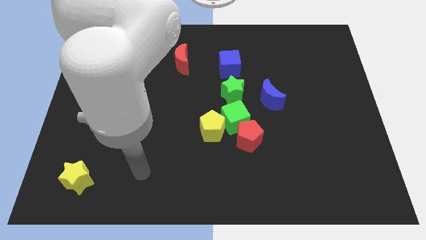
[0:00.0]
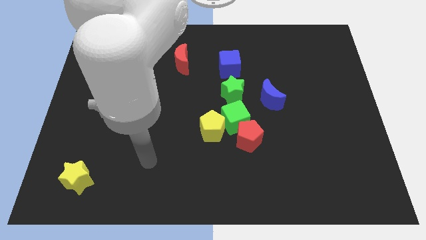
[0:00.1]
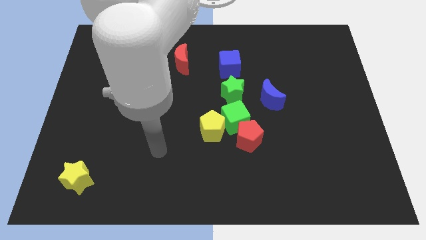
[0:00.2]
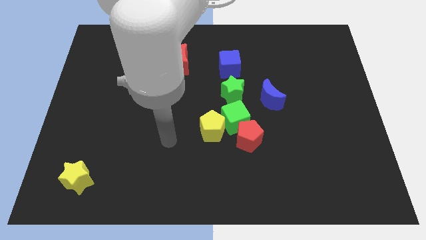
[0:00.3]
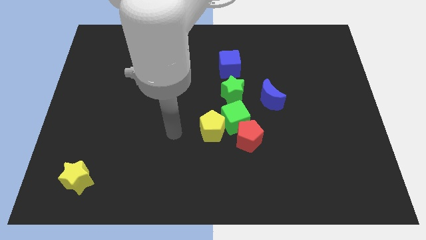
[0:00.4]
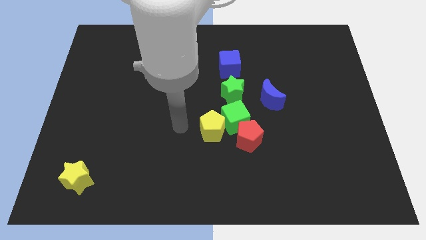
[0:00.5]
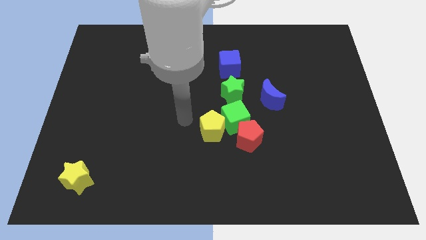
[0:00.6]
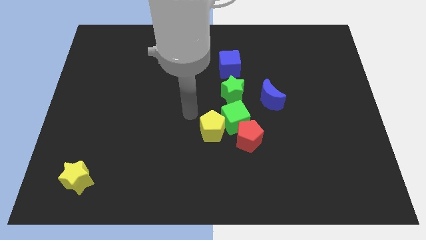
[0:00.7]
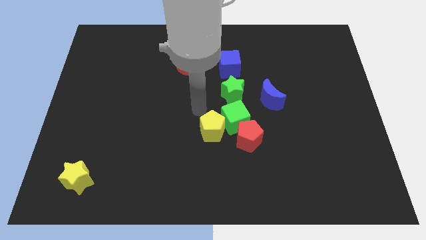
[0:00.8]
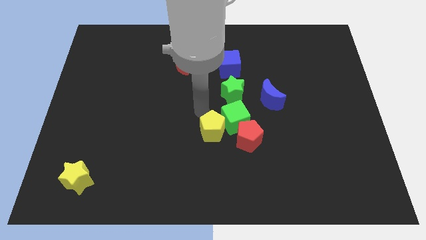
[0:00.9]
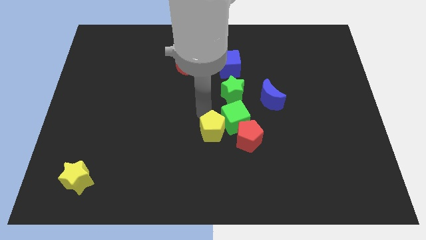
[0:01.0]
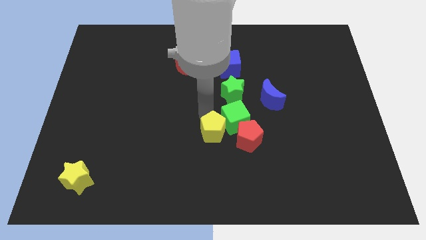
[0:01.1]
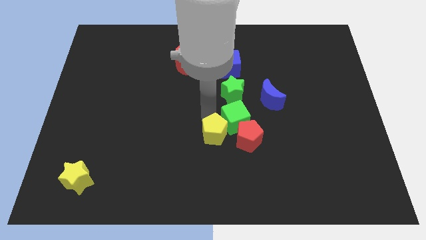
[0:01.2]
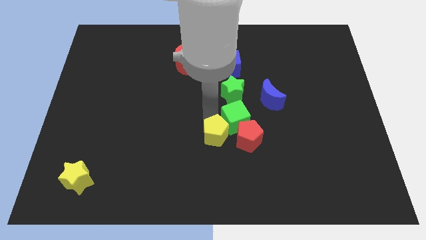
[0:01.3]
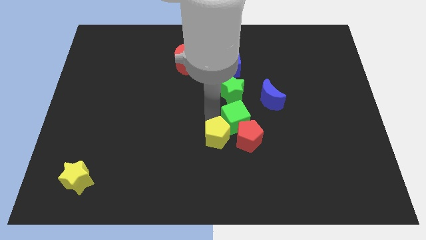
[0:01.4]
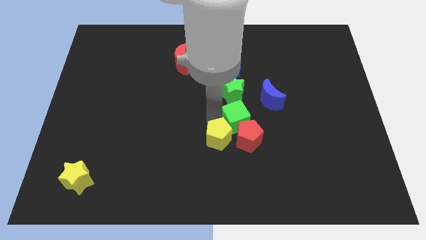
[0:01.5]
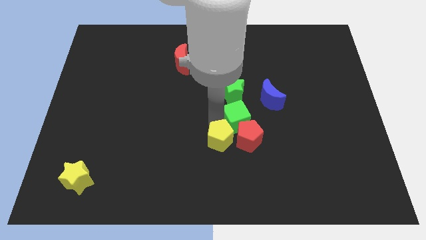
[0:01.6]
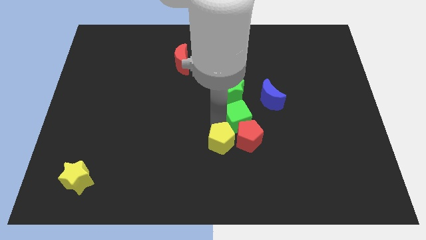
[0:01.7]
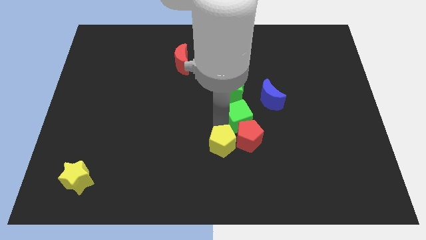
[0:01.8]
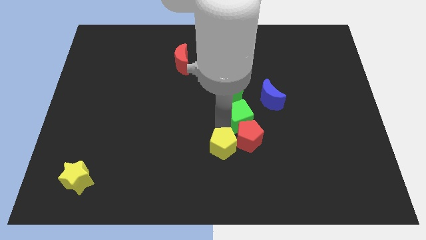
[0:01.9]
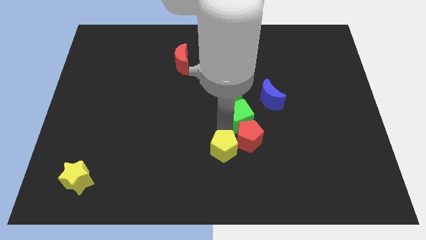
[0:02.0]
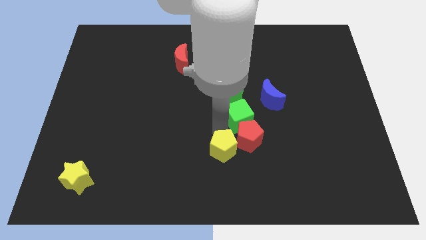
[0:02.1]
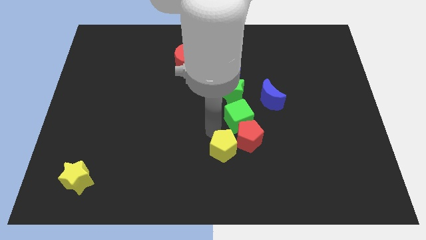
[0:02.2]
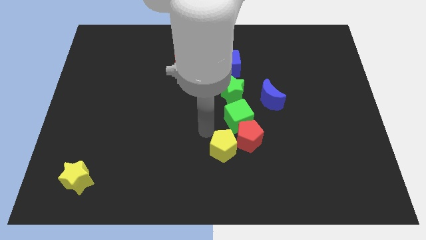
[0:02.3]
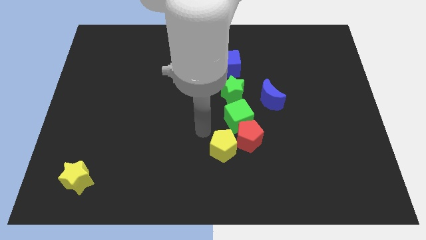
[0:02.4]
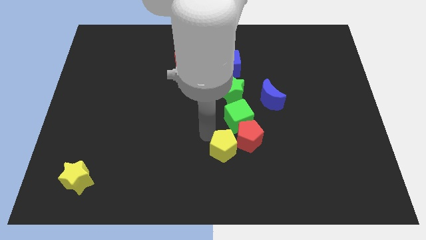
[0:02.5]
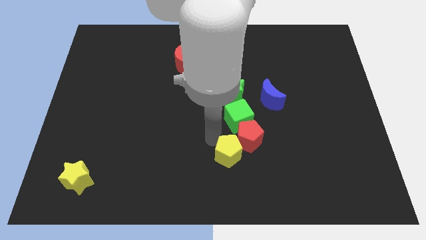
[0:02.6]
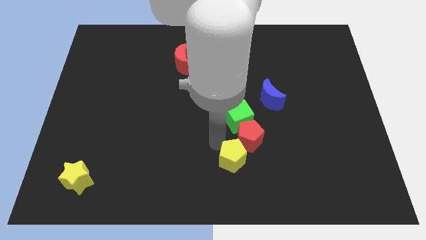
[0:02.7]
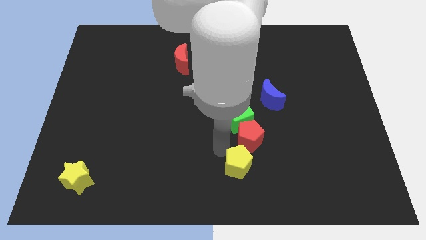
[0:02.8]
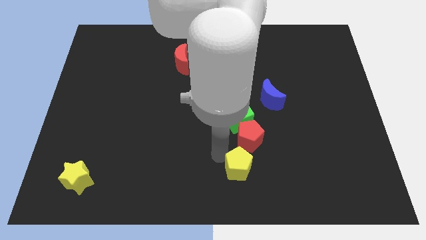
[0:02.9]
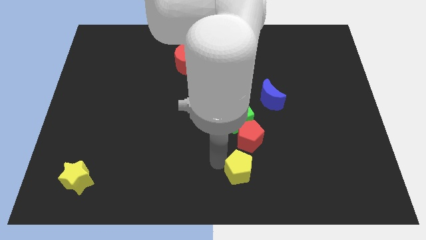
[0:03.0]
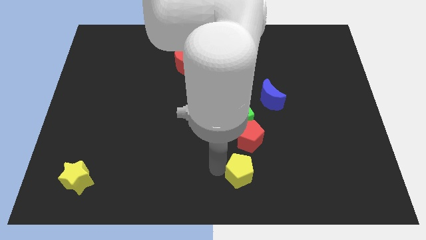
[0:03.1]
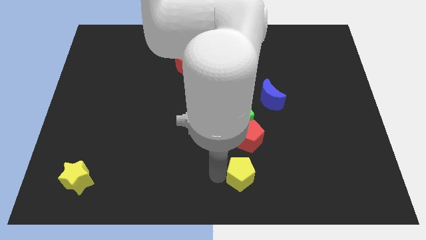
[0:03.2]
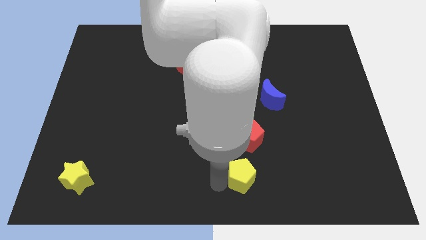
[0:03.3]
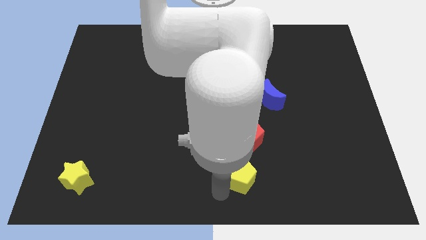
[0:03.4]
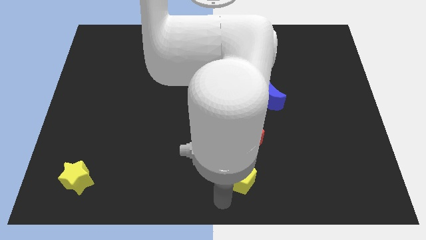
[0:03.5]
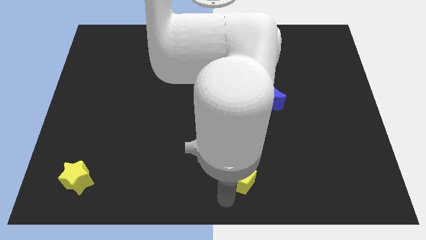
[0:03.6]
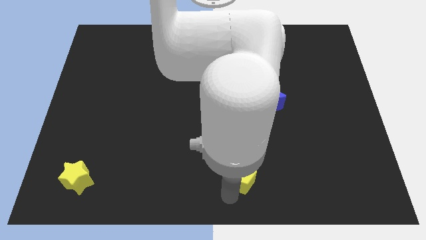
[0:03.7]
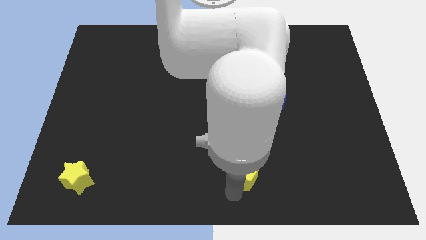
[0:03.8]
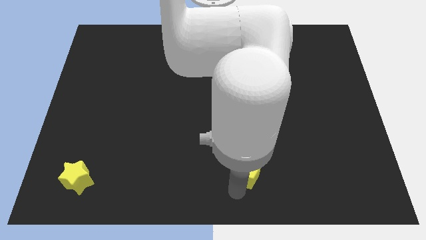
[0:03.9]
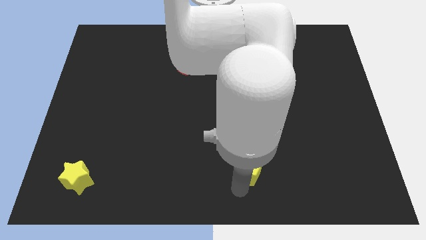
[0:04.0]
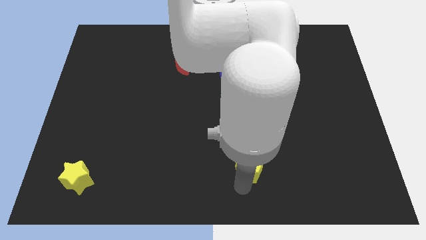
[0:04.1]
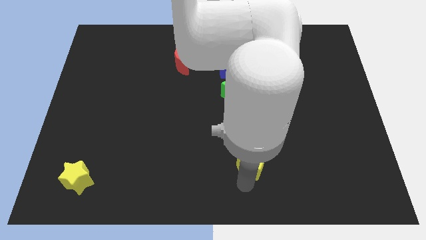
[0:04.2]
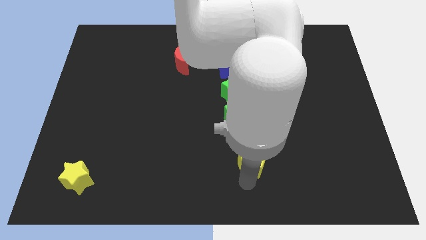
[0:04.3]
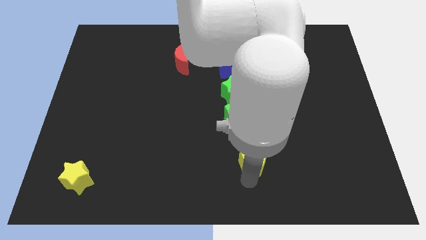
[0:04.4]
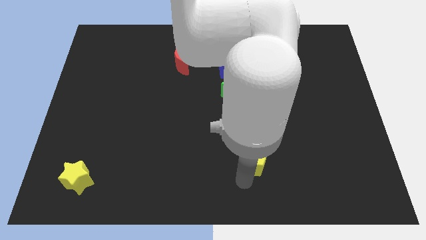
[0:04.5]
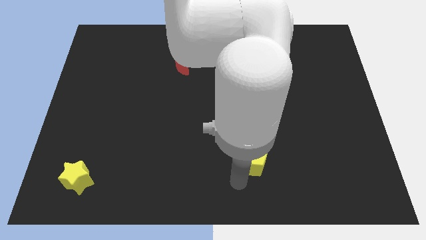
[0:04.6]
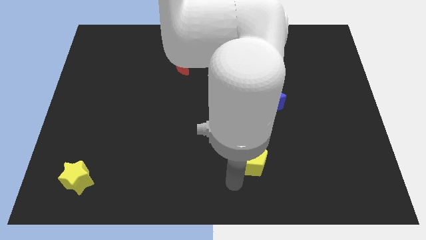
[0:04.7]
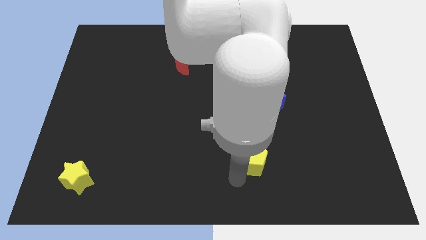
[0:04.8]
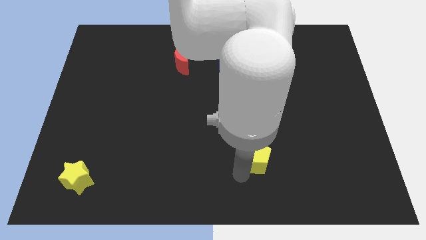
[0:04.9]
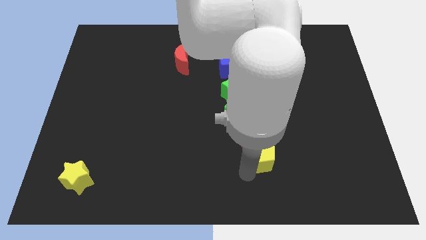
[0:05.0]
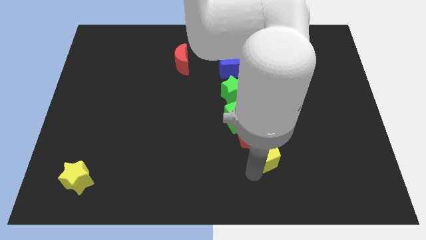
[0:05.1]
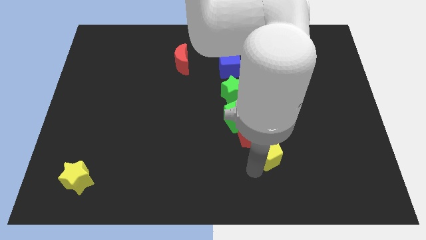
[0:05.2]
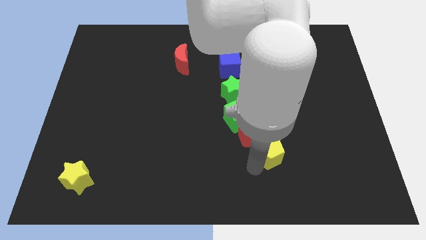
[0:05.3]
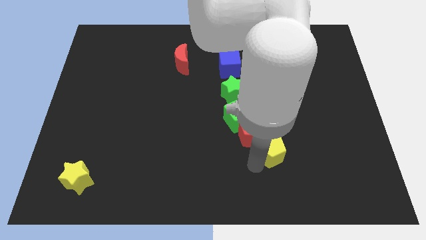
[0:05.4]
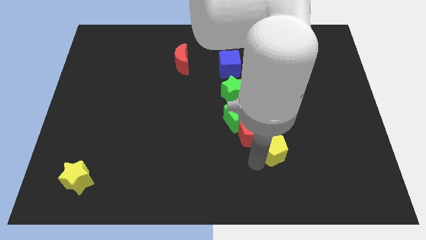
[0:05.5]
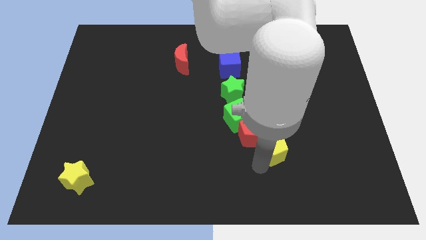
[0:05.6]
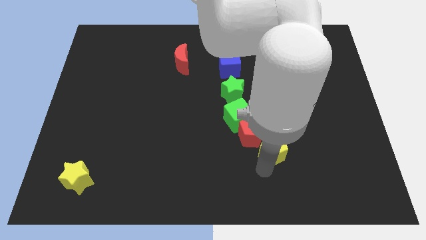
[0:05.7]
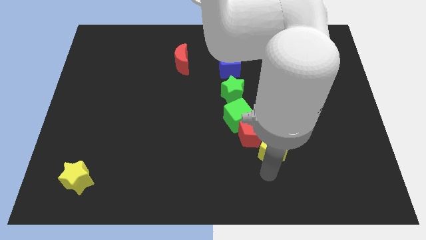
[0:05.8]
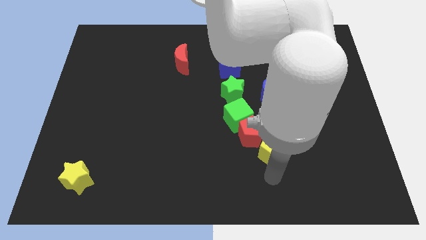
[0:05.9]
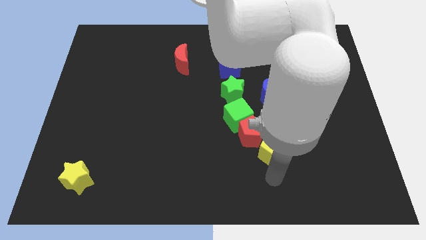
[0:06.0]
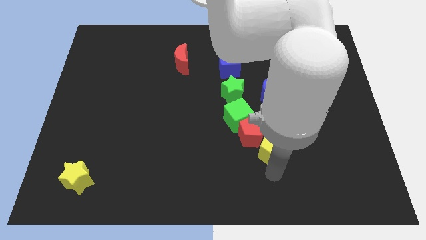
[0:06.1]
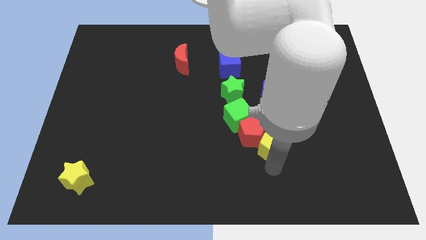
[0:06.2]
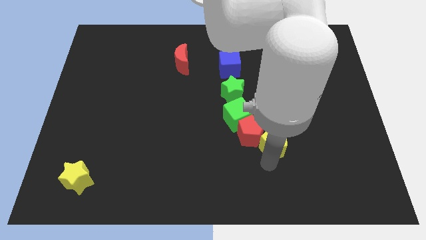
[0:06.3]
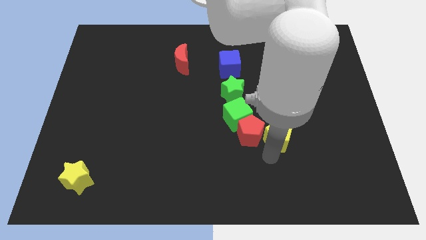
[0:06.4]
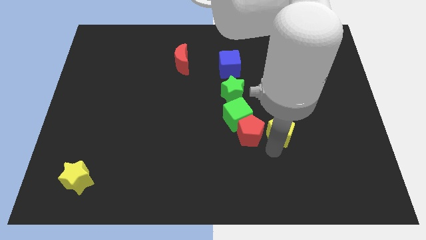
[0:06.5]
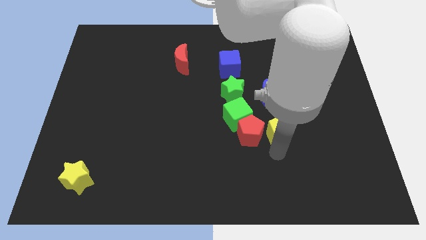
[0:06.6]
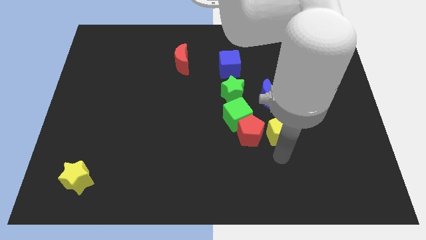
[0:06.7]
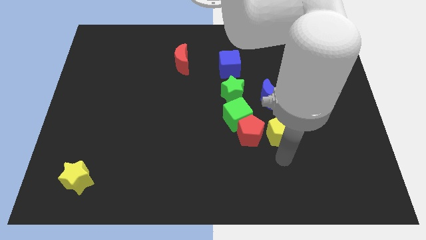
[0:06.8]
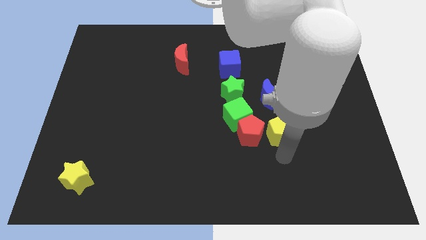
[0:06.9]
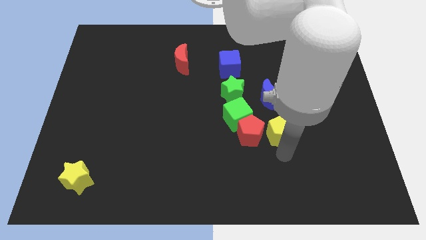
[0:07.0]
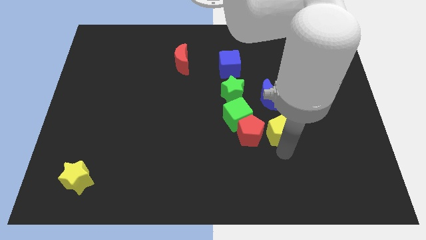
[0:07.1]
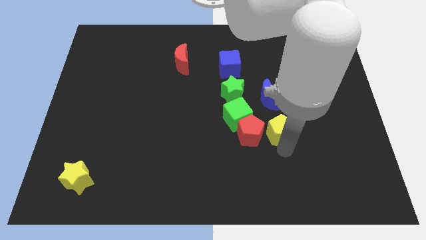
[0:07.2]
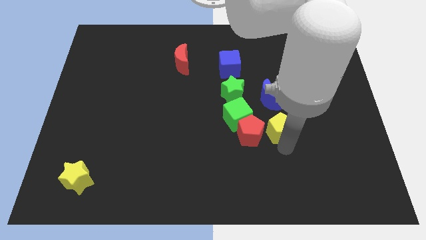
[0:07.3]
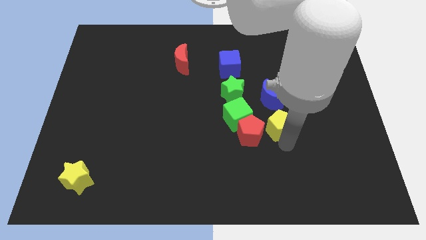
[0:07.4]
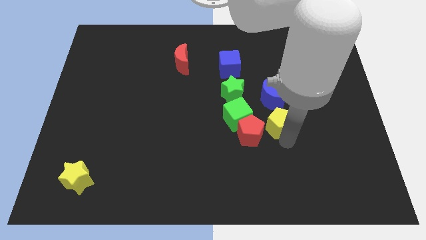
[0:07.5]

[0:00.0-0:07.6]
move the yellow pentagon a bit up and then to the right

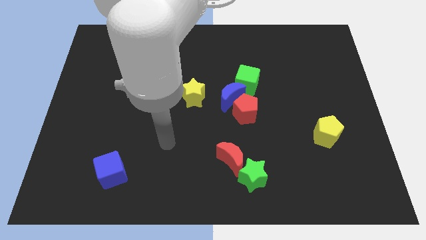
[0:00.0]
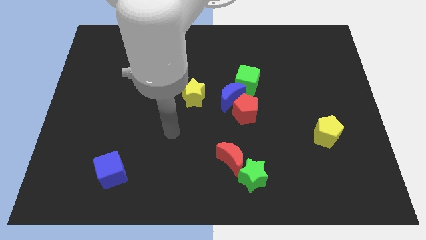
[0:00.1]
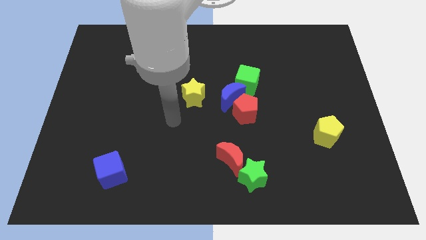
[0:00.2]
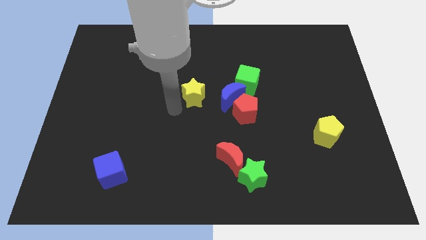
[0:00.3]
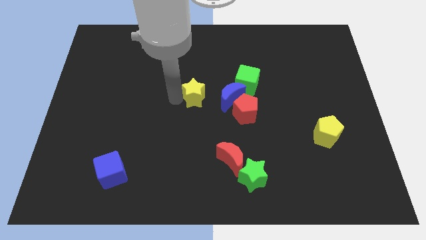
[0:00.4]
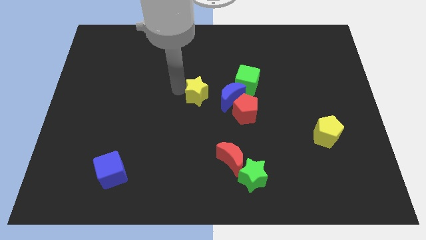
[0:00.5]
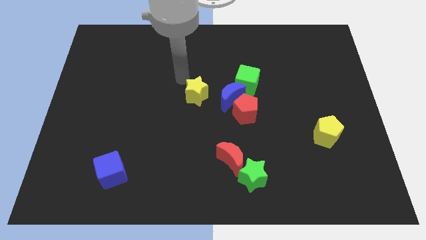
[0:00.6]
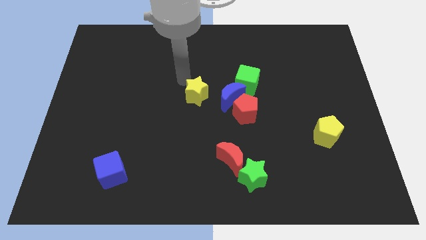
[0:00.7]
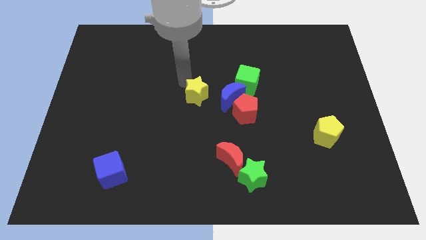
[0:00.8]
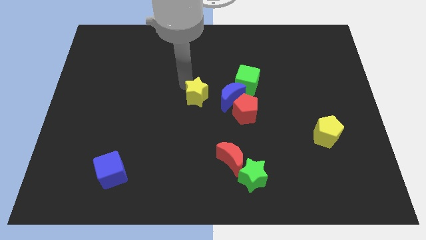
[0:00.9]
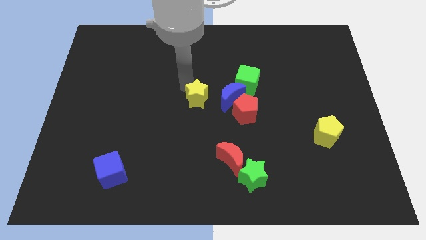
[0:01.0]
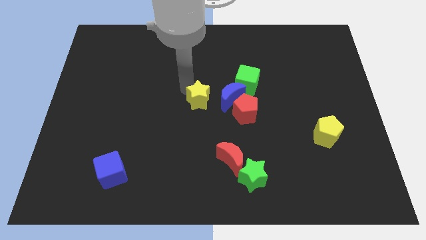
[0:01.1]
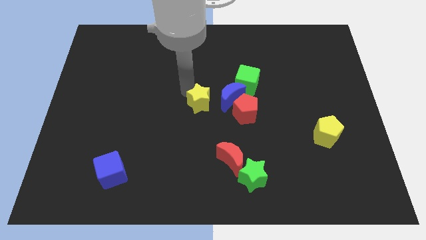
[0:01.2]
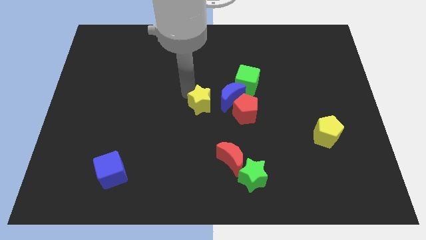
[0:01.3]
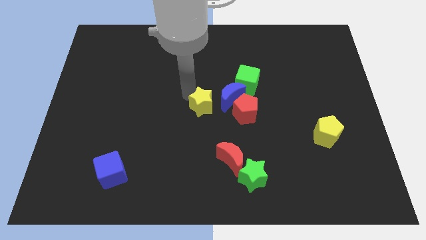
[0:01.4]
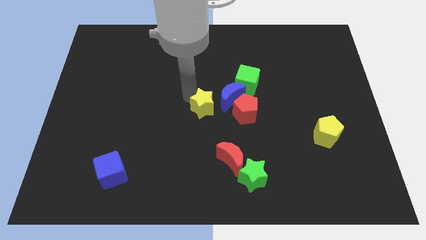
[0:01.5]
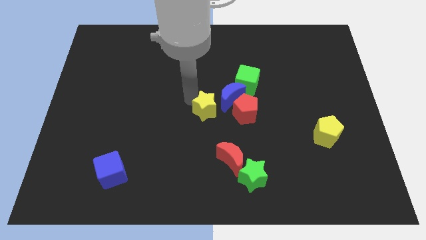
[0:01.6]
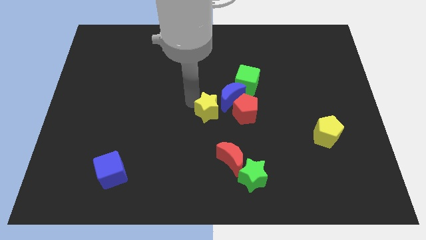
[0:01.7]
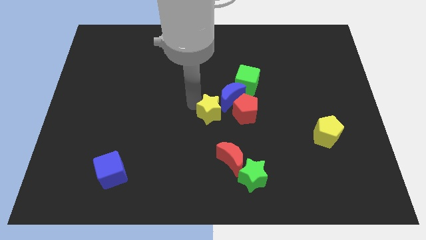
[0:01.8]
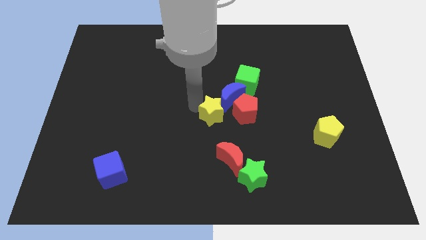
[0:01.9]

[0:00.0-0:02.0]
slide the yellow star a little bit downwards and then right
